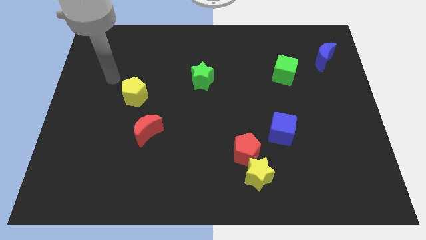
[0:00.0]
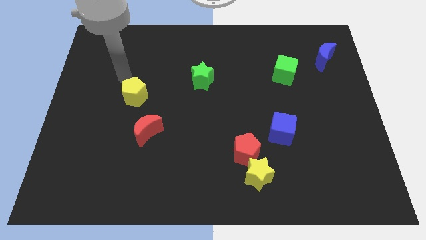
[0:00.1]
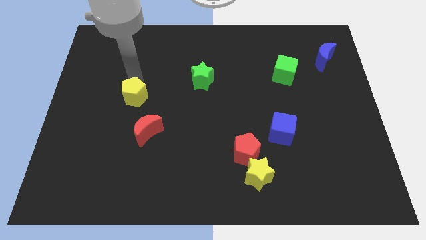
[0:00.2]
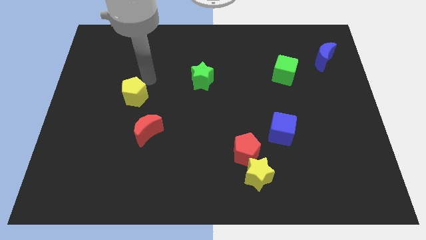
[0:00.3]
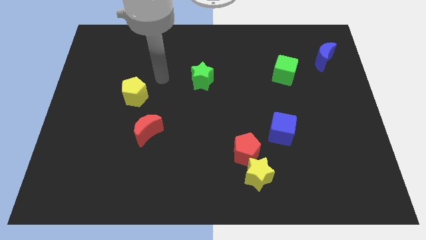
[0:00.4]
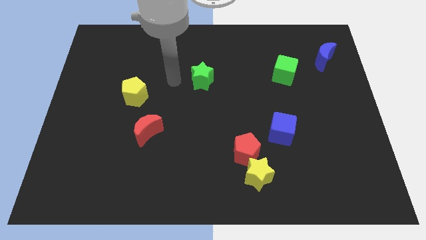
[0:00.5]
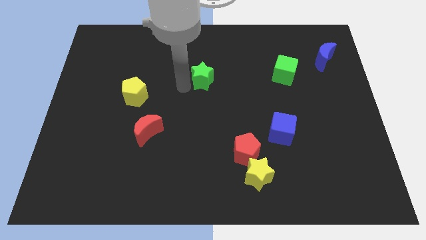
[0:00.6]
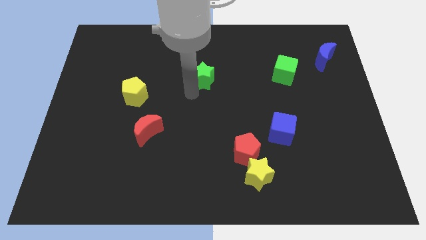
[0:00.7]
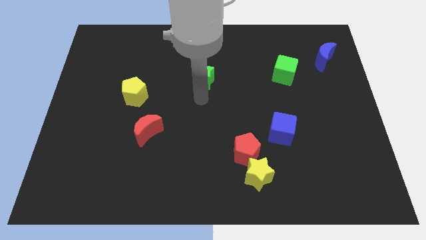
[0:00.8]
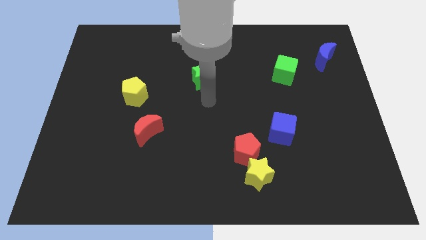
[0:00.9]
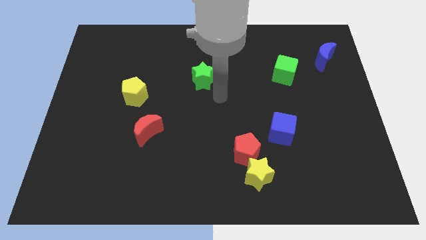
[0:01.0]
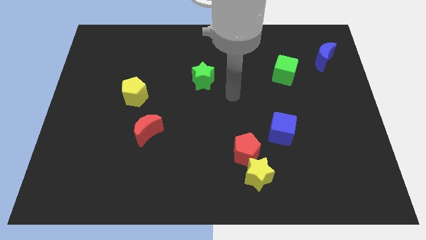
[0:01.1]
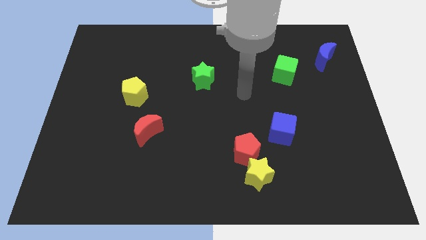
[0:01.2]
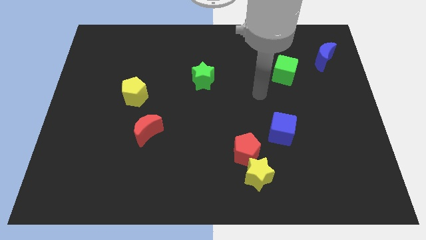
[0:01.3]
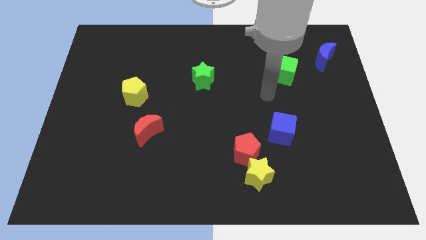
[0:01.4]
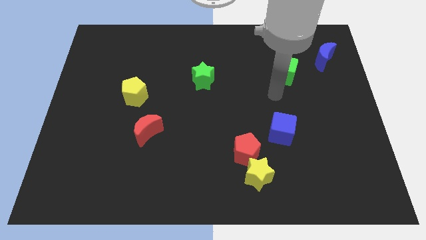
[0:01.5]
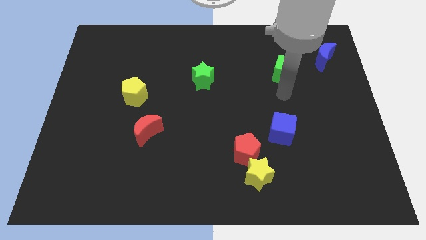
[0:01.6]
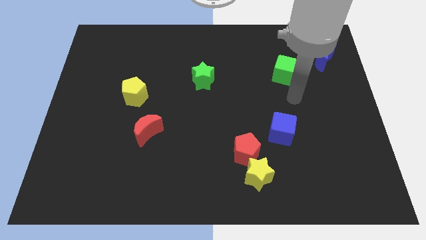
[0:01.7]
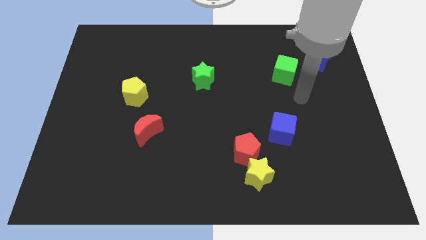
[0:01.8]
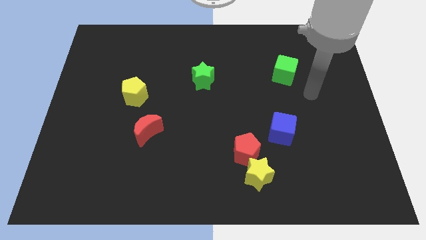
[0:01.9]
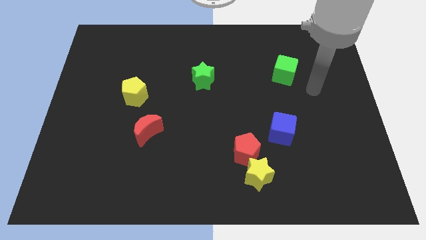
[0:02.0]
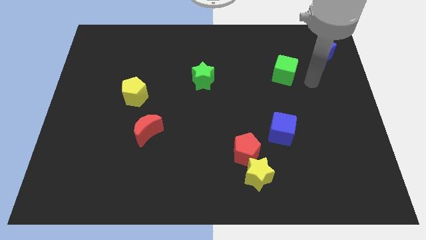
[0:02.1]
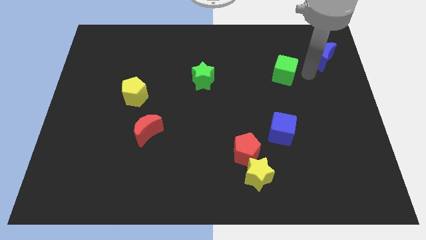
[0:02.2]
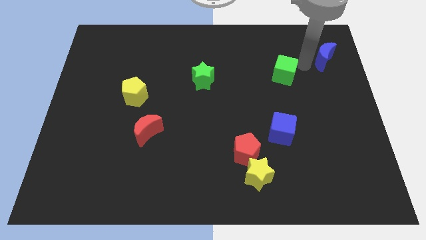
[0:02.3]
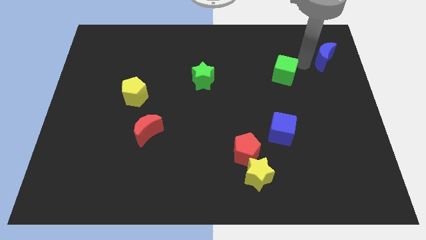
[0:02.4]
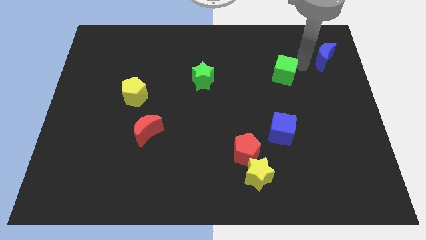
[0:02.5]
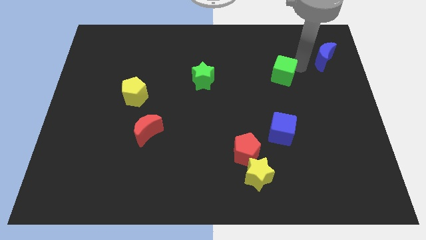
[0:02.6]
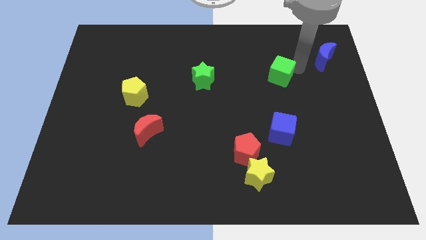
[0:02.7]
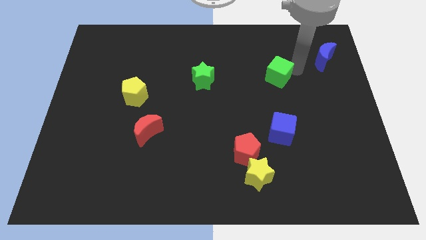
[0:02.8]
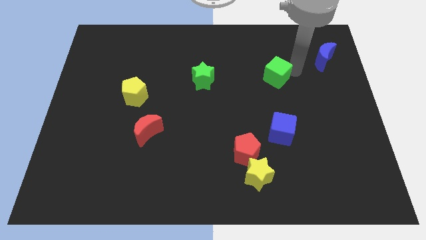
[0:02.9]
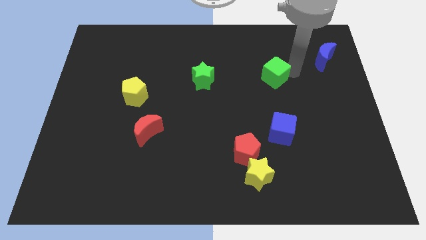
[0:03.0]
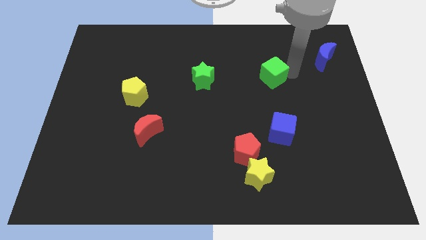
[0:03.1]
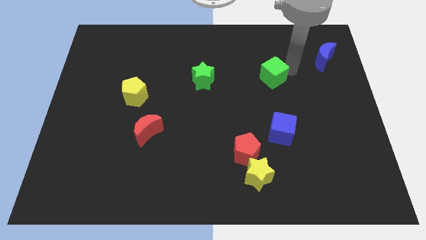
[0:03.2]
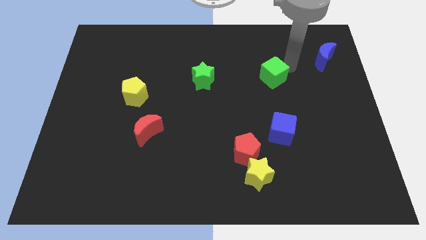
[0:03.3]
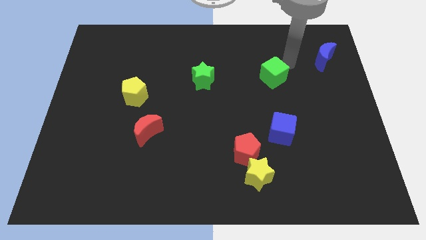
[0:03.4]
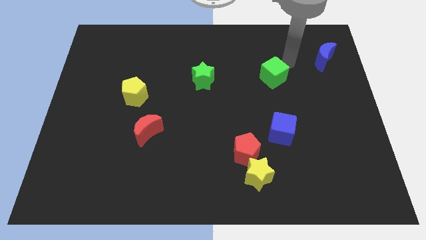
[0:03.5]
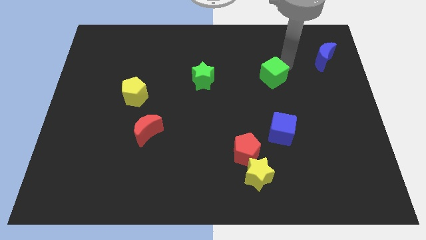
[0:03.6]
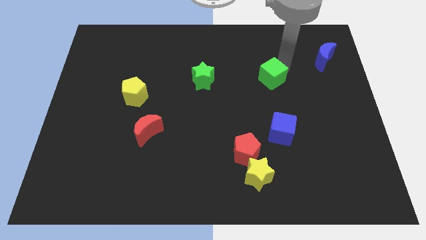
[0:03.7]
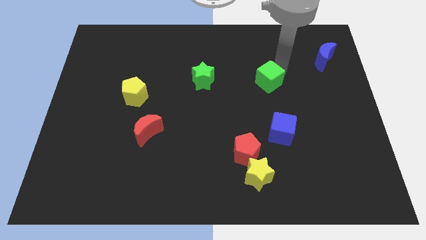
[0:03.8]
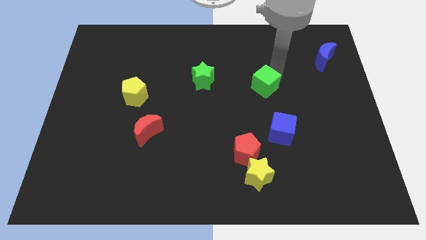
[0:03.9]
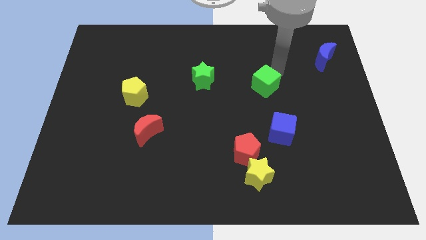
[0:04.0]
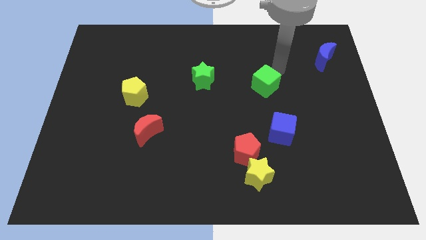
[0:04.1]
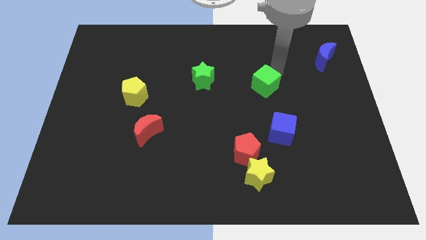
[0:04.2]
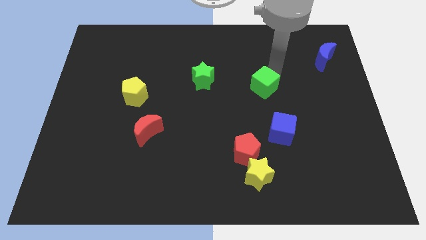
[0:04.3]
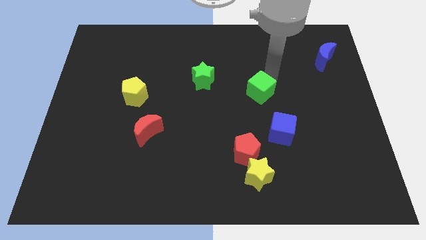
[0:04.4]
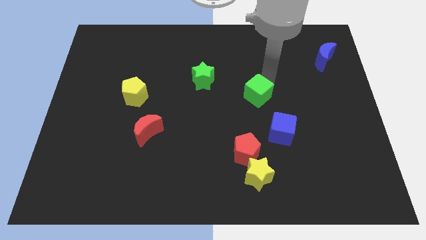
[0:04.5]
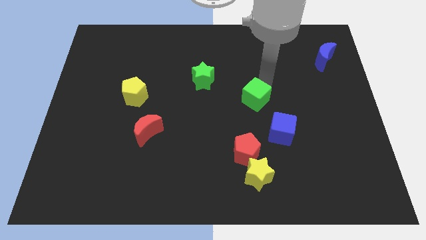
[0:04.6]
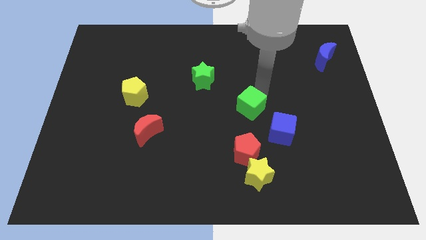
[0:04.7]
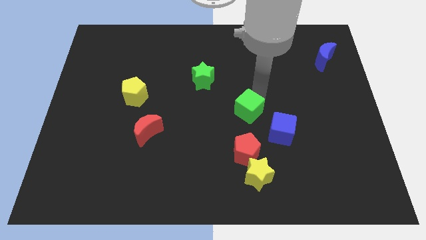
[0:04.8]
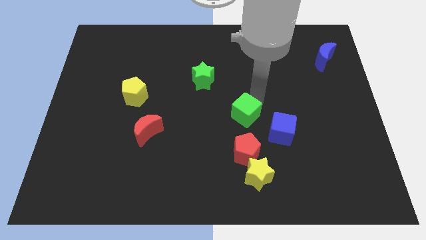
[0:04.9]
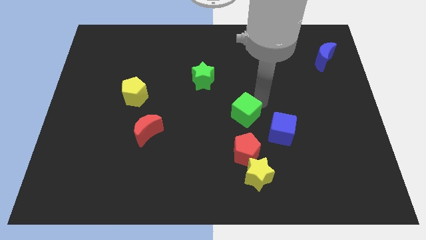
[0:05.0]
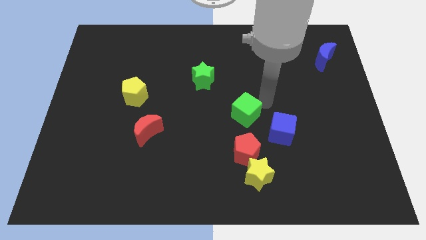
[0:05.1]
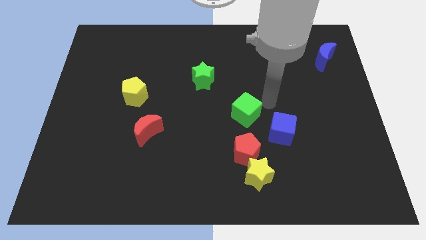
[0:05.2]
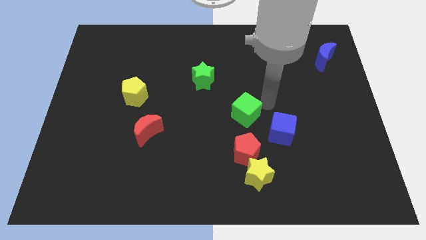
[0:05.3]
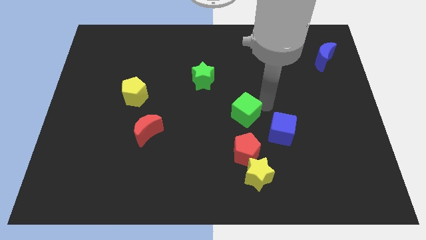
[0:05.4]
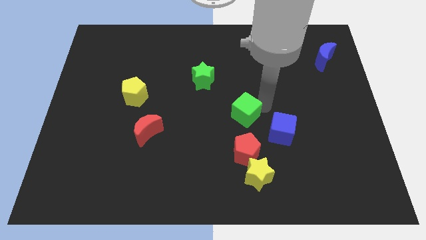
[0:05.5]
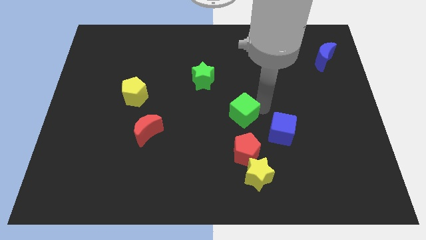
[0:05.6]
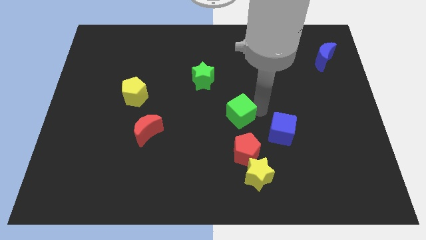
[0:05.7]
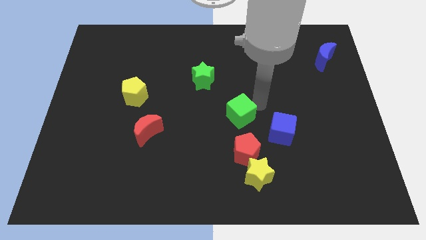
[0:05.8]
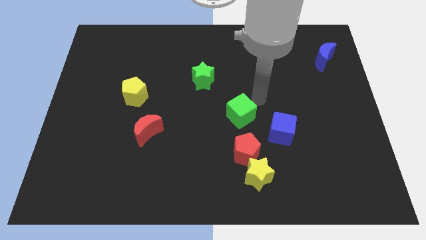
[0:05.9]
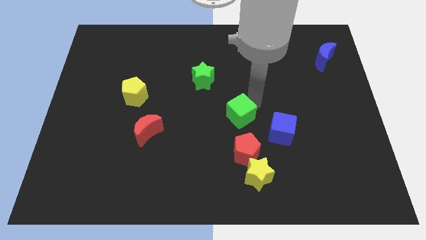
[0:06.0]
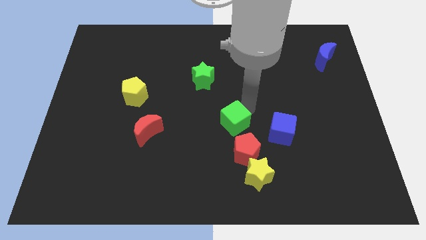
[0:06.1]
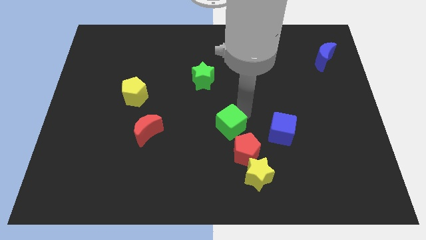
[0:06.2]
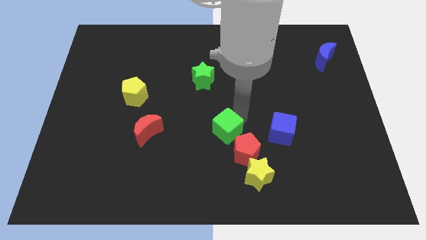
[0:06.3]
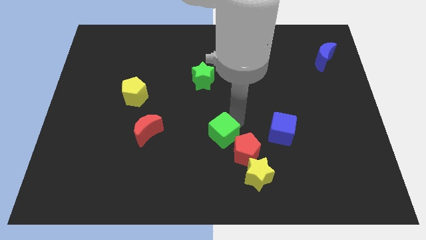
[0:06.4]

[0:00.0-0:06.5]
push the green cube to the left side of the red pentagon

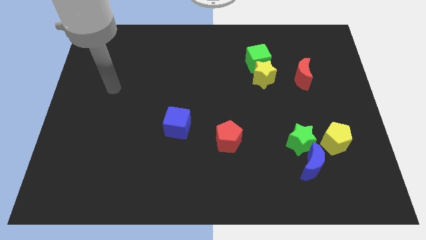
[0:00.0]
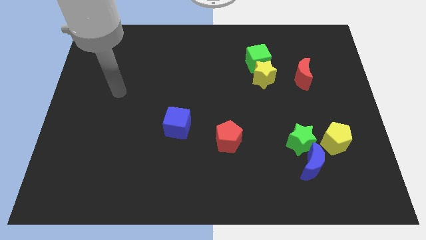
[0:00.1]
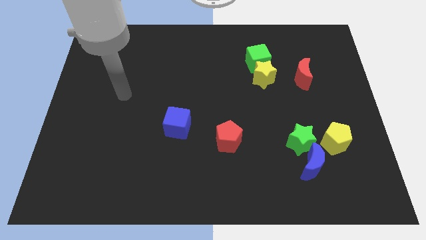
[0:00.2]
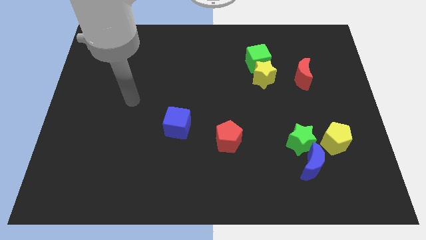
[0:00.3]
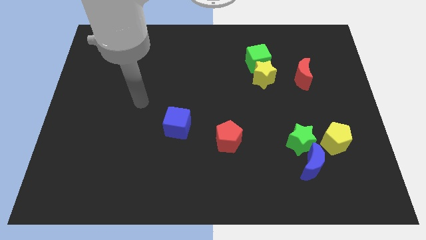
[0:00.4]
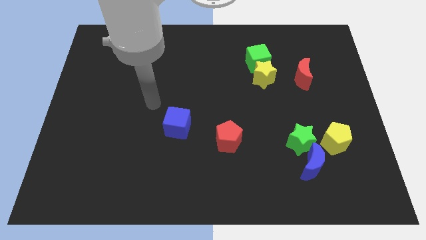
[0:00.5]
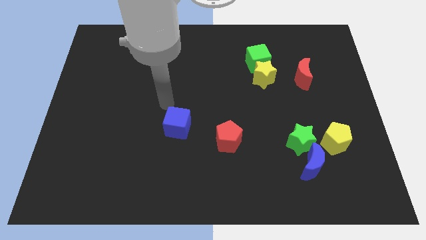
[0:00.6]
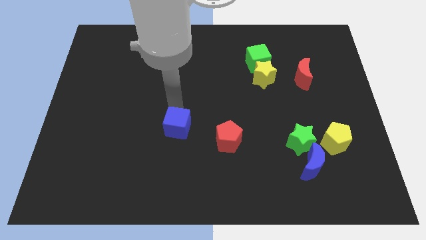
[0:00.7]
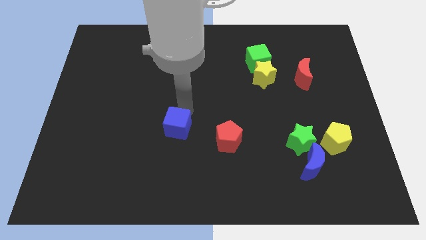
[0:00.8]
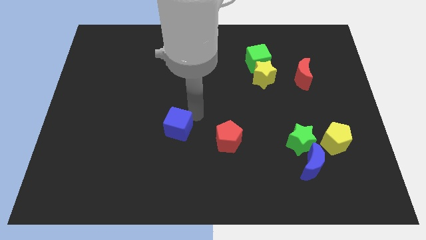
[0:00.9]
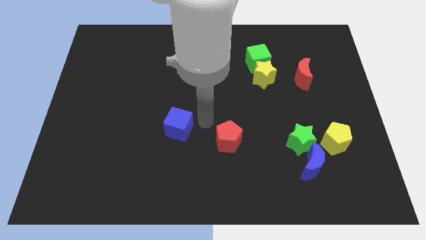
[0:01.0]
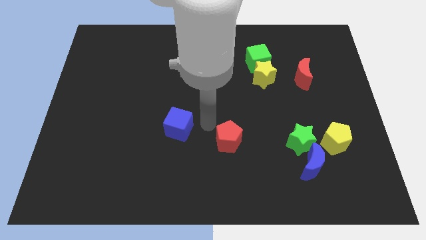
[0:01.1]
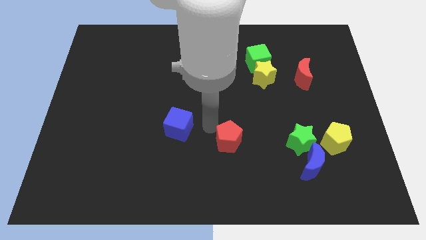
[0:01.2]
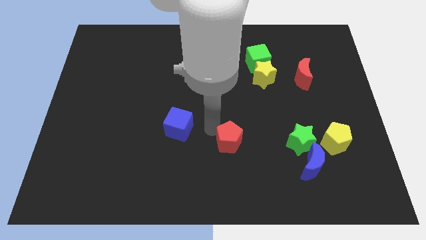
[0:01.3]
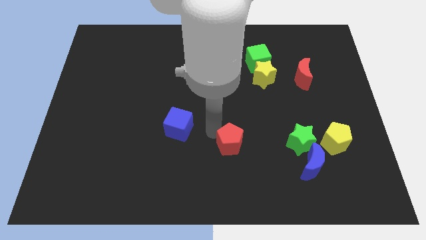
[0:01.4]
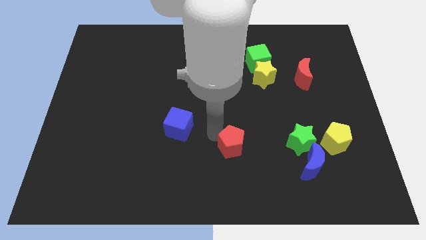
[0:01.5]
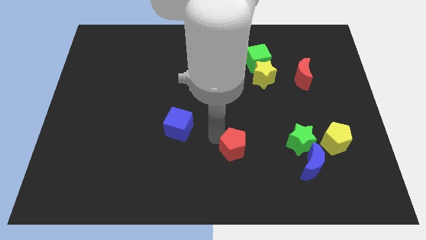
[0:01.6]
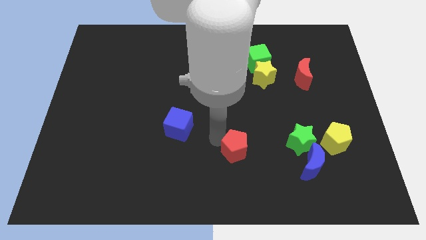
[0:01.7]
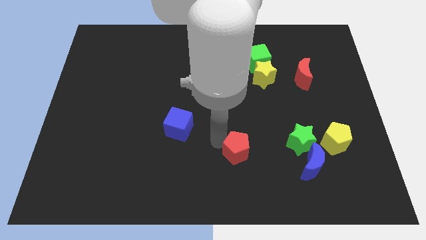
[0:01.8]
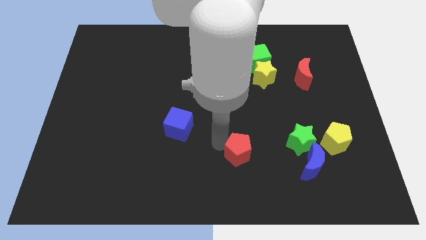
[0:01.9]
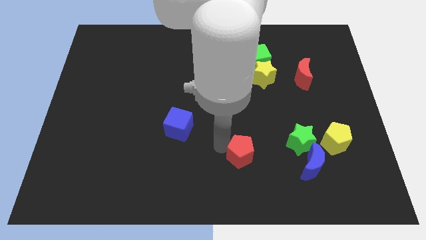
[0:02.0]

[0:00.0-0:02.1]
push the red pentagon to the left side of the blue moon
